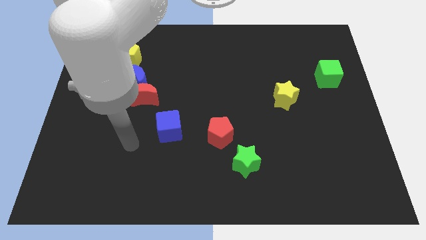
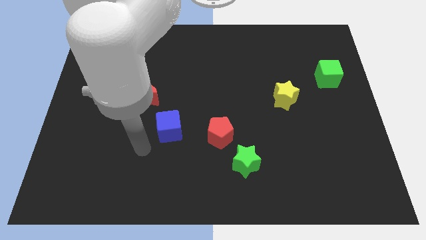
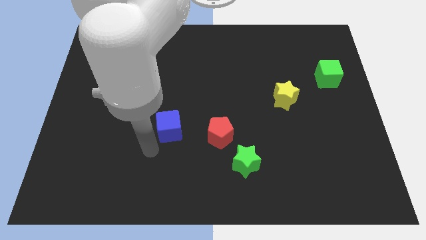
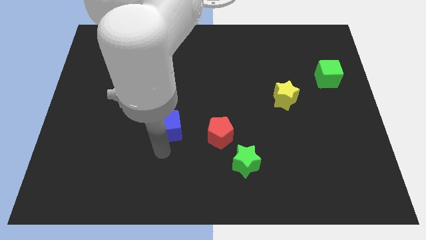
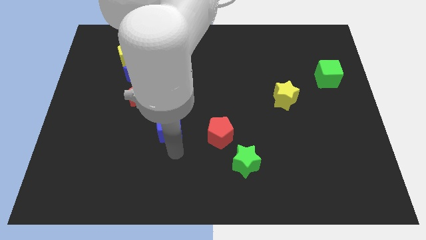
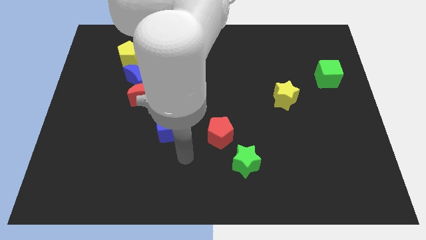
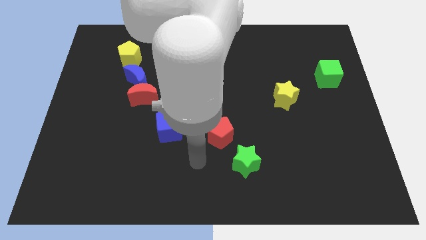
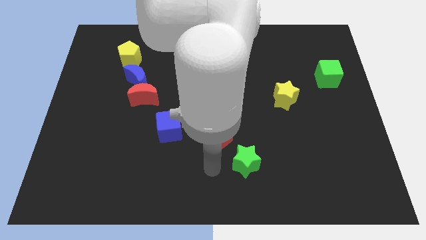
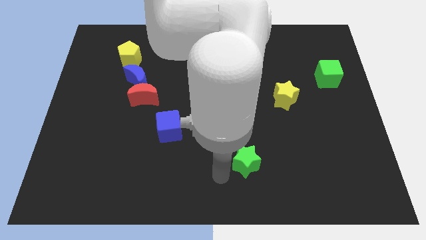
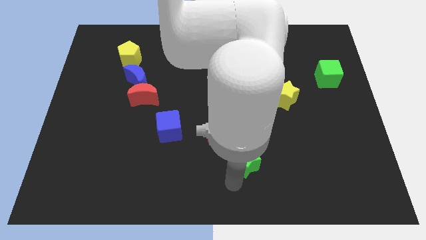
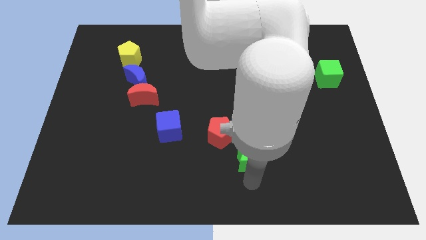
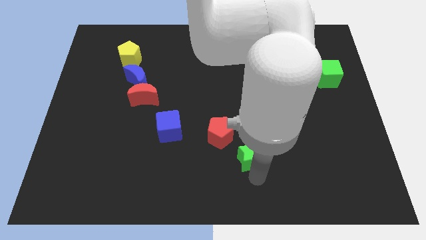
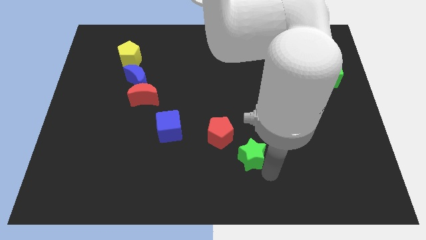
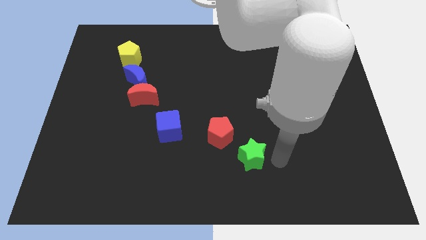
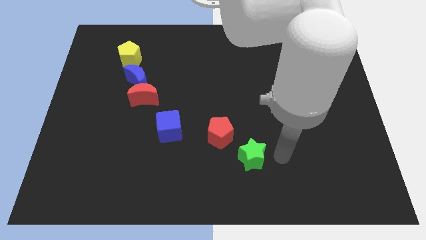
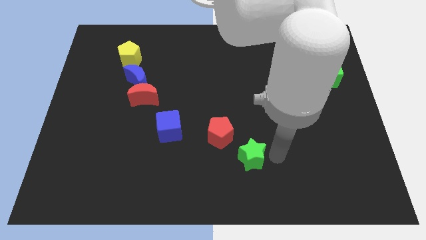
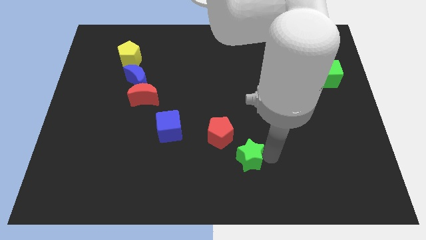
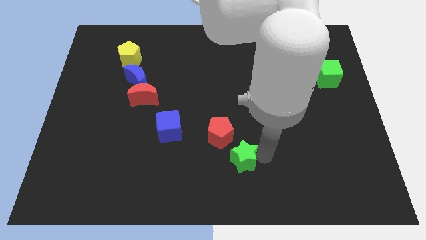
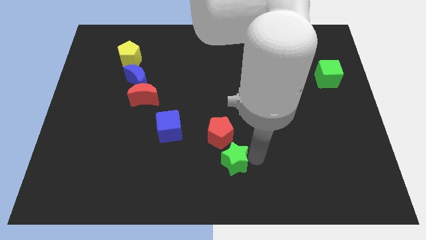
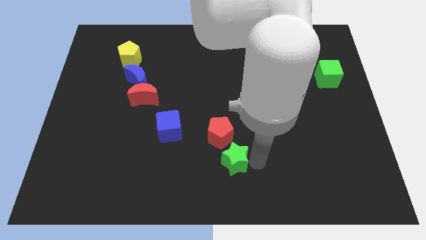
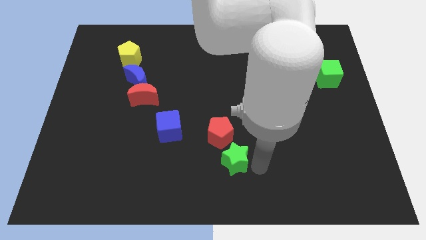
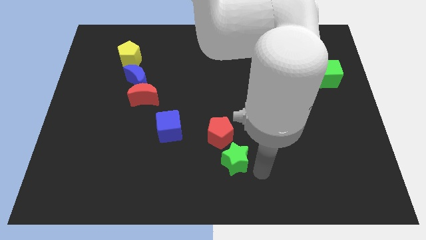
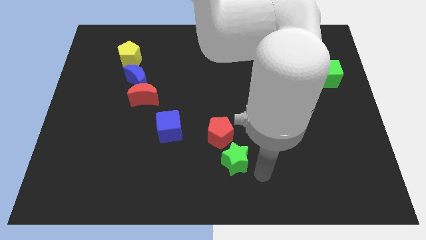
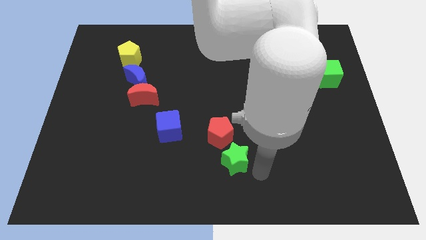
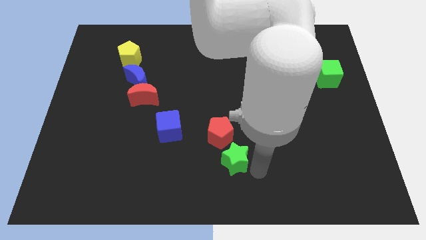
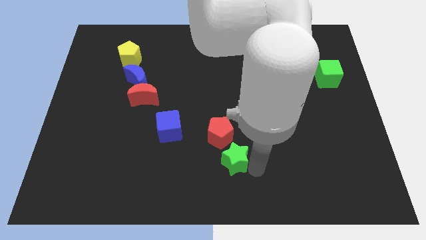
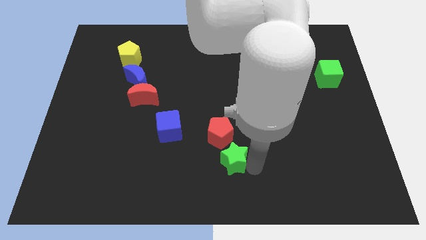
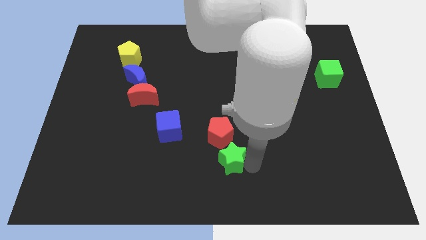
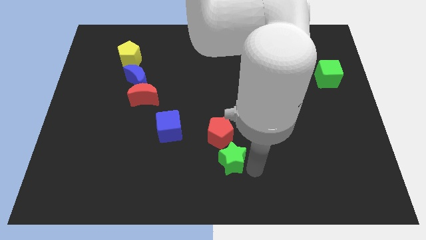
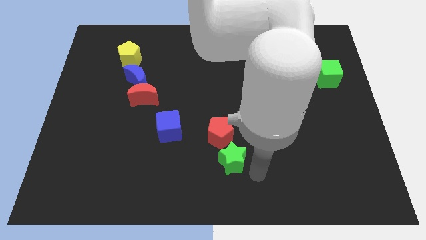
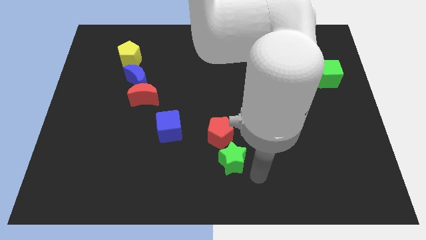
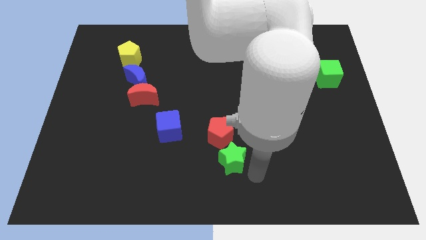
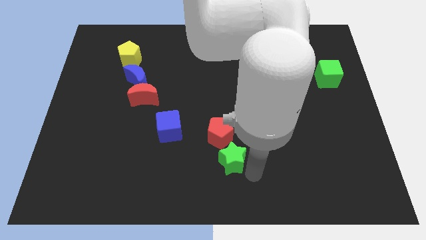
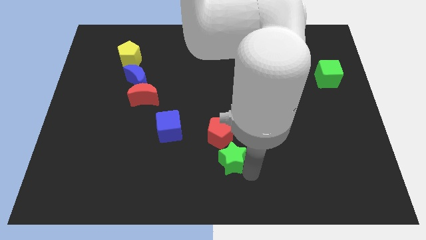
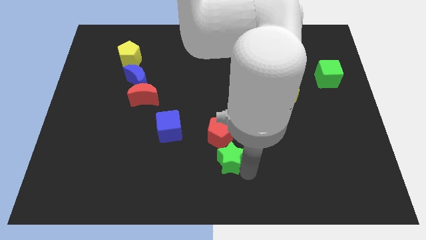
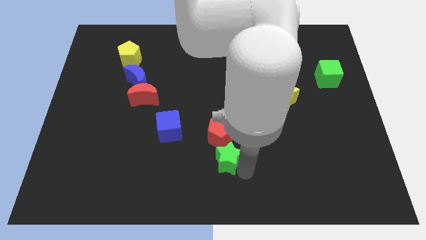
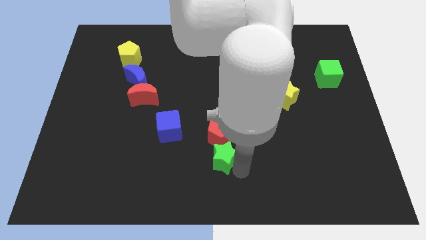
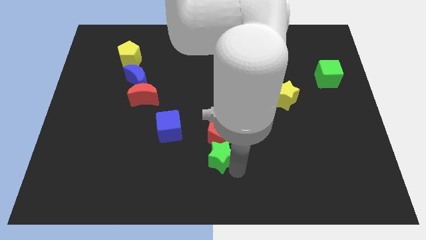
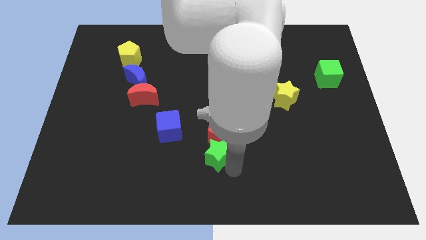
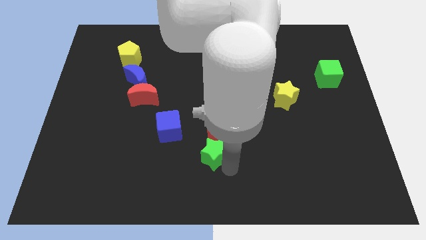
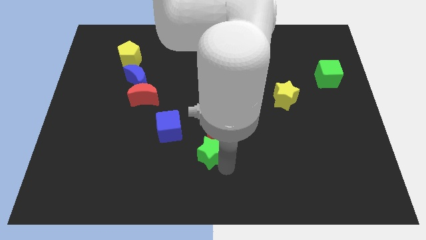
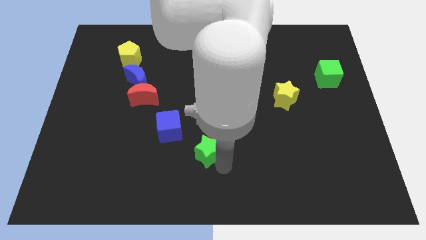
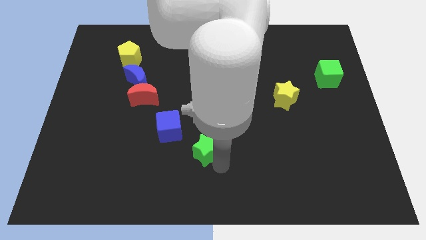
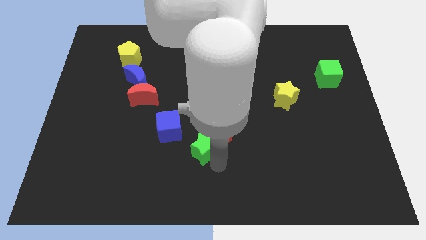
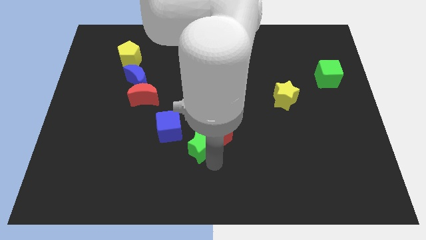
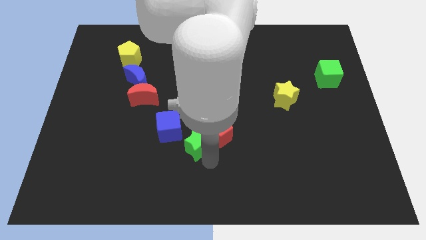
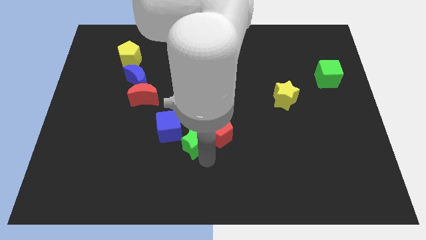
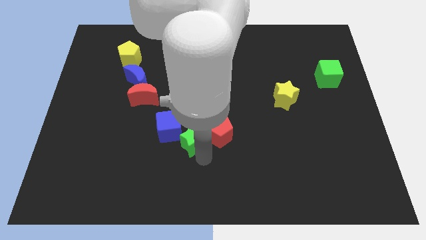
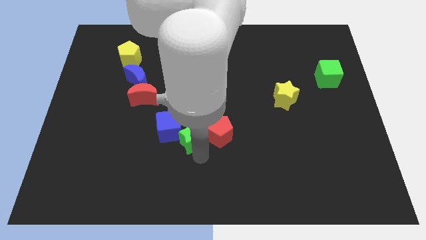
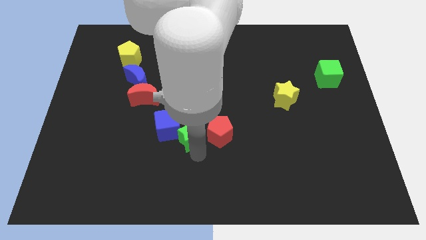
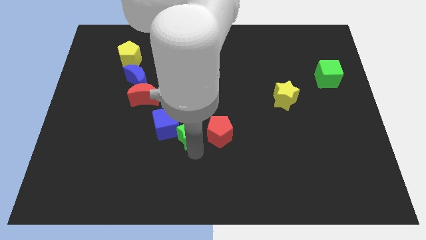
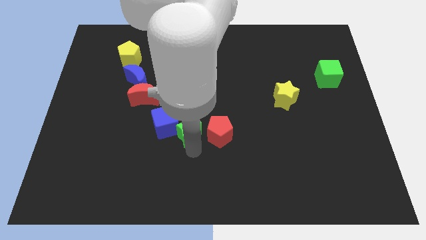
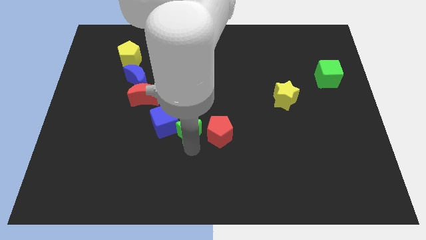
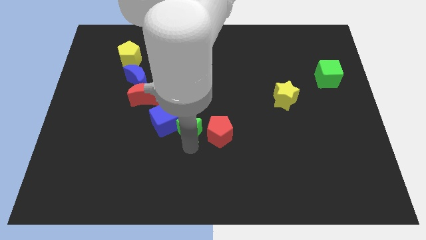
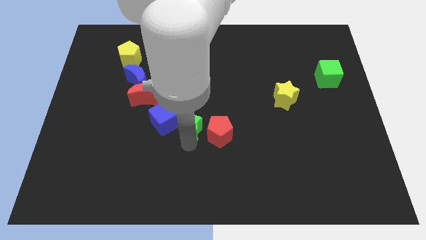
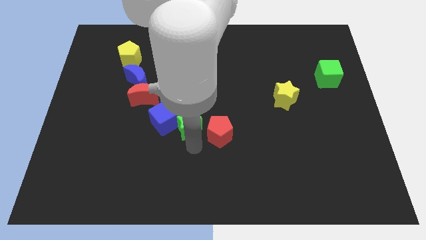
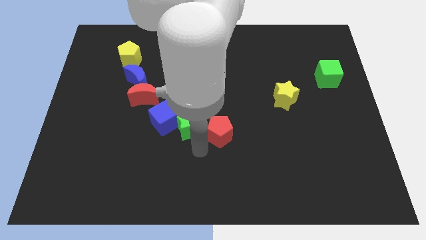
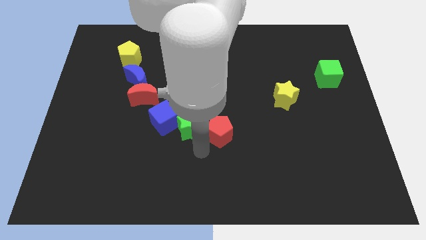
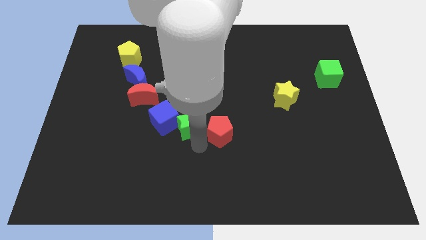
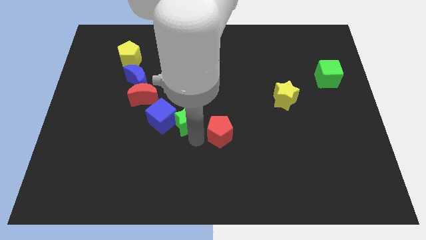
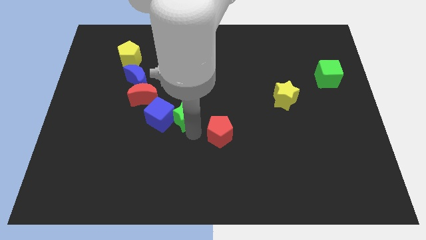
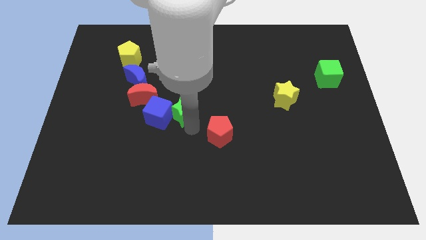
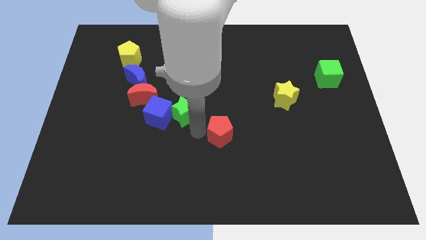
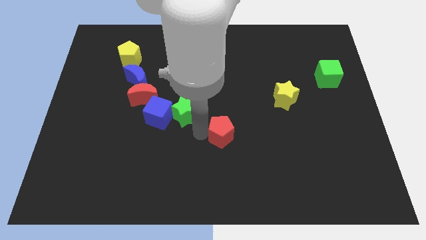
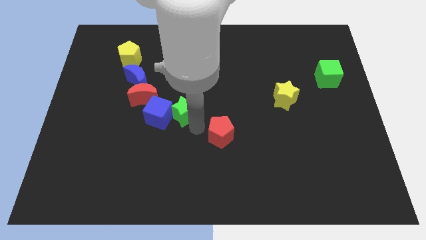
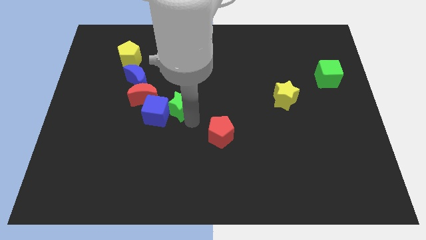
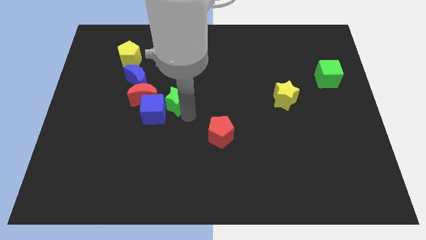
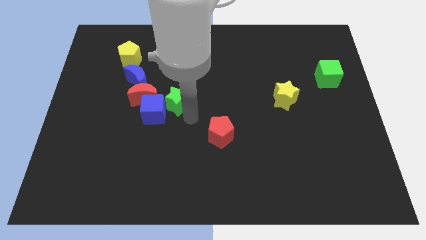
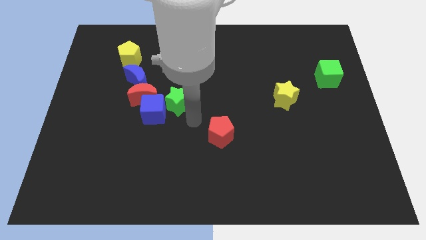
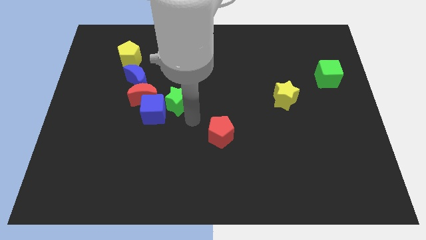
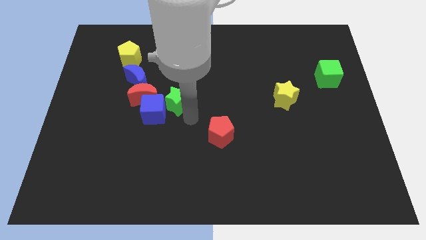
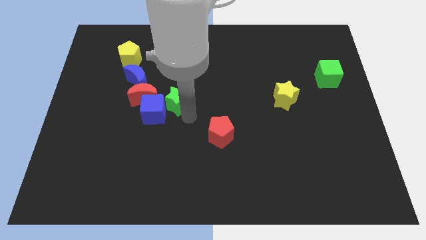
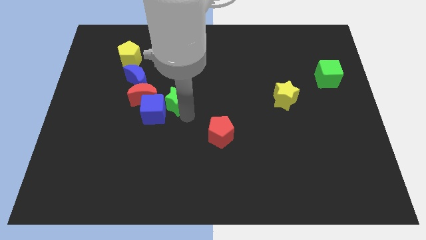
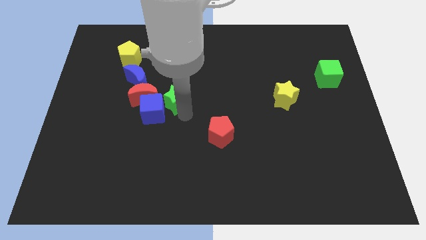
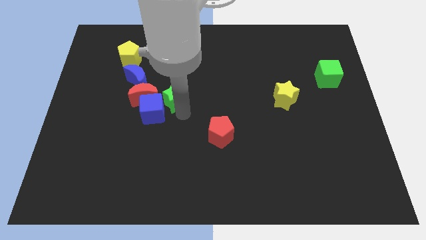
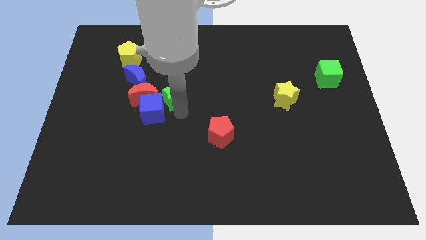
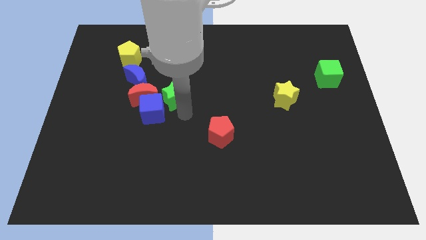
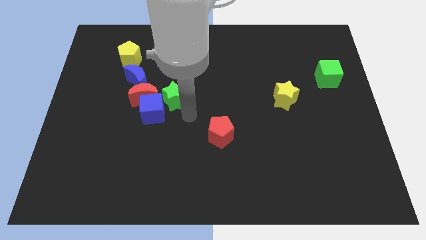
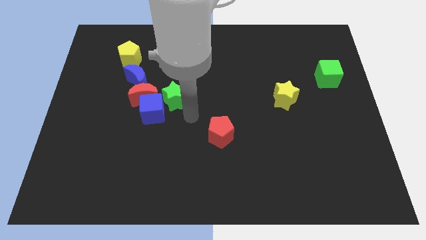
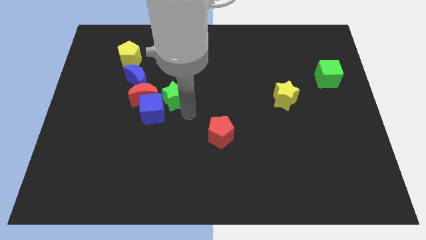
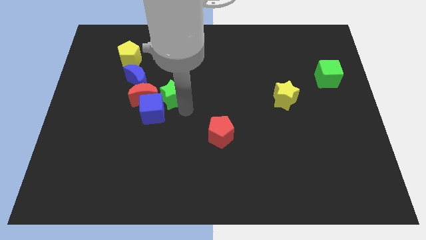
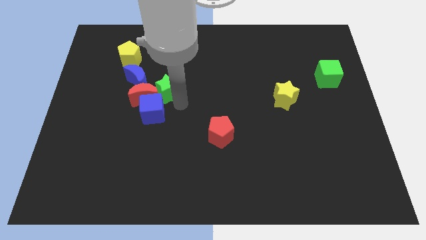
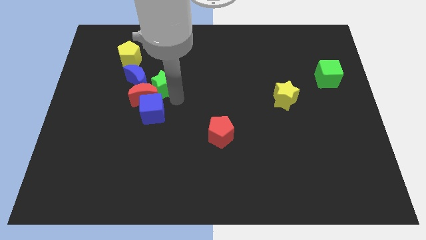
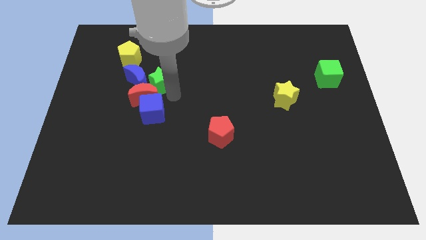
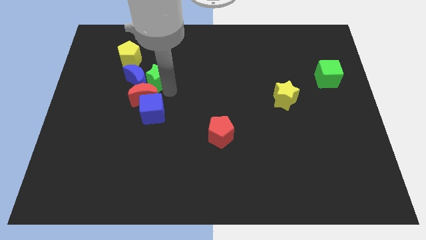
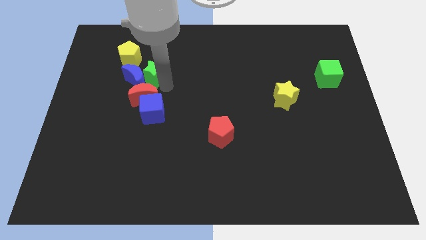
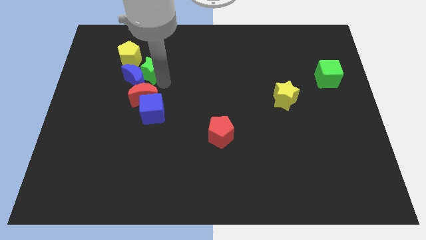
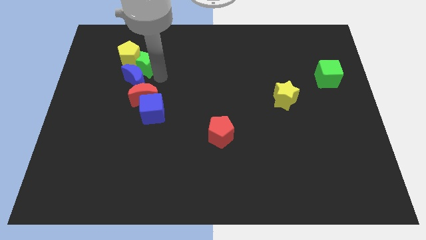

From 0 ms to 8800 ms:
put the green star to the yellow pentagon

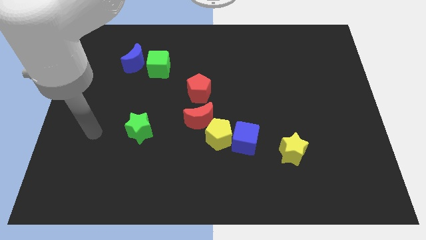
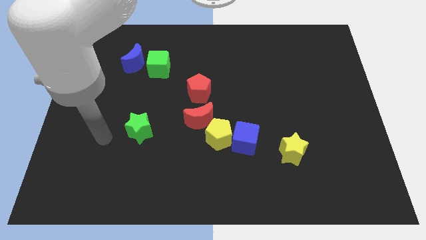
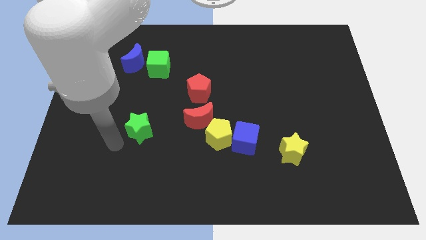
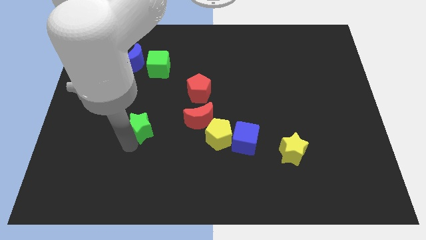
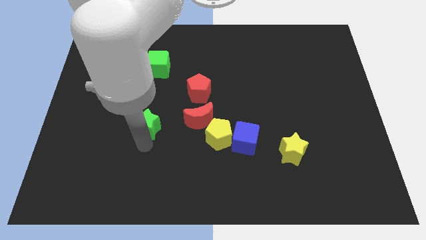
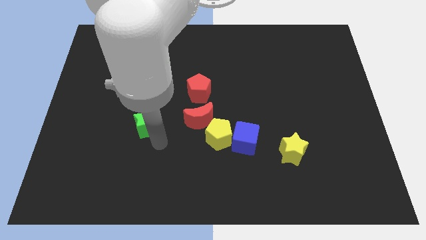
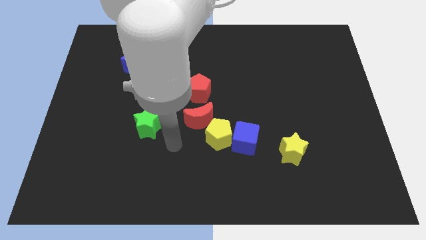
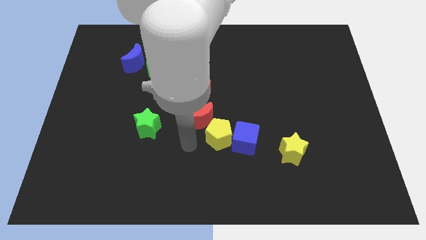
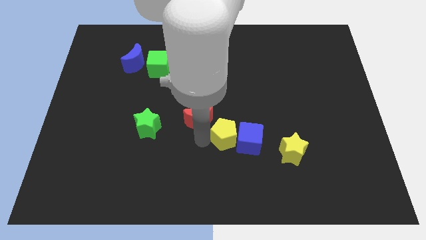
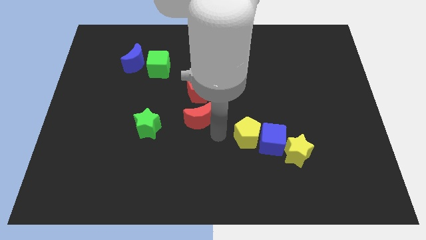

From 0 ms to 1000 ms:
slide the blue cube towards the yellow star
